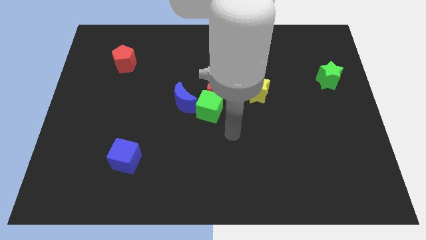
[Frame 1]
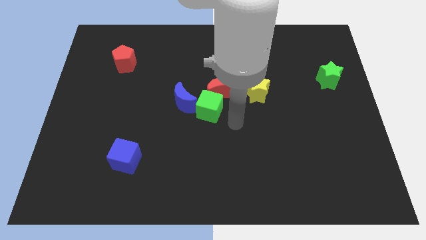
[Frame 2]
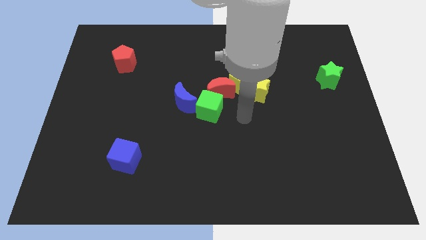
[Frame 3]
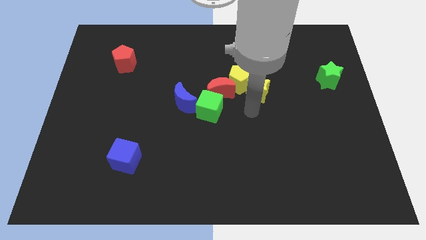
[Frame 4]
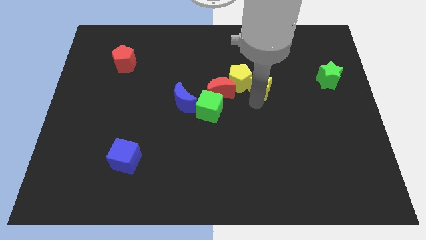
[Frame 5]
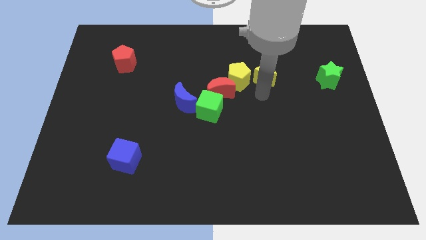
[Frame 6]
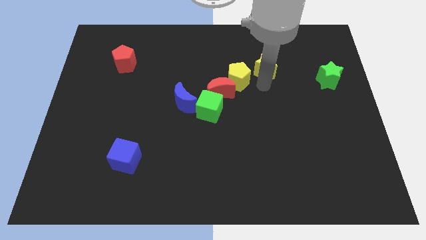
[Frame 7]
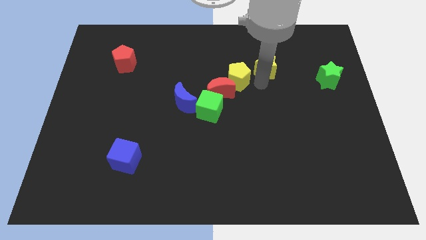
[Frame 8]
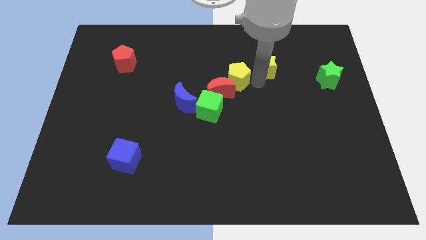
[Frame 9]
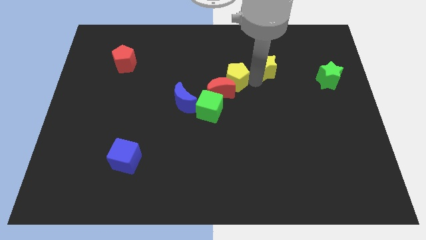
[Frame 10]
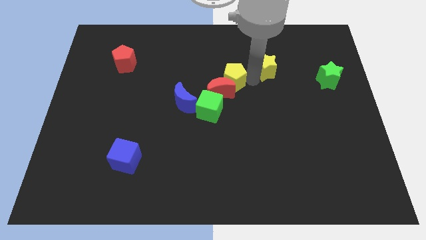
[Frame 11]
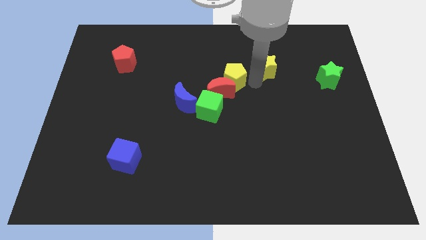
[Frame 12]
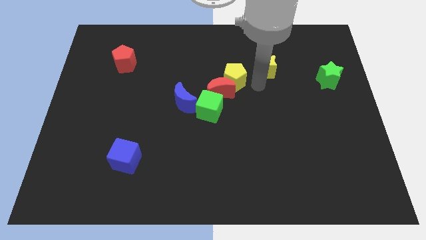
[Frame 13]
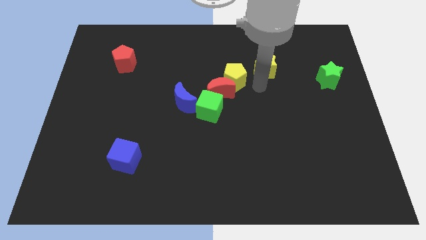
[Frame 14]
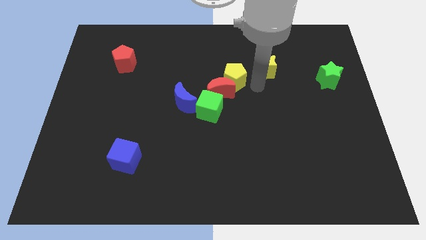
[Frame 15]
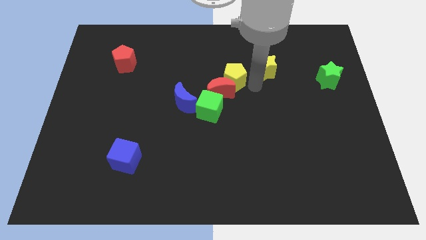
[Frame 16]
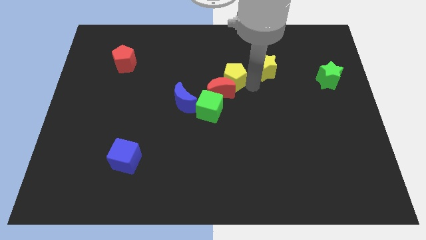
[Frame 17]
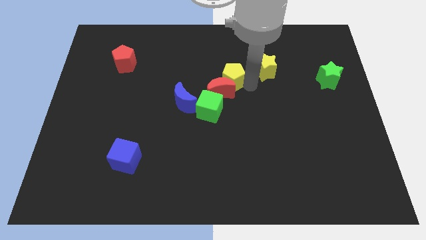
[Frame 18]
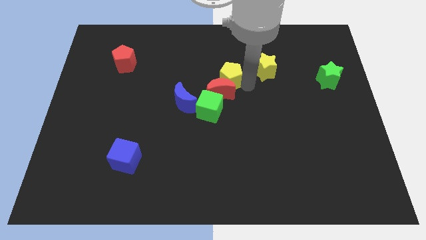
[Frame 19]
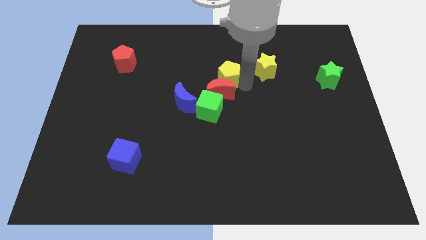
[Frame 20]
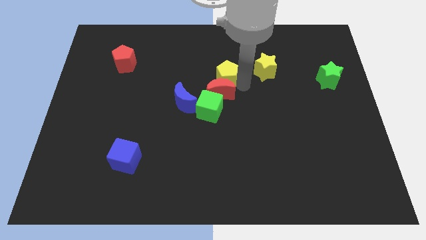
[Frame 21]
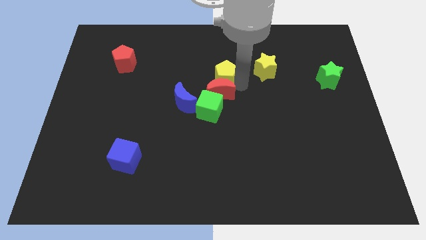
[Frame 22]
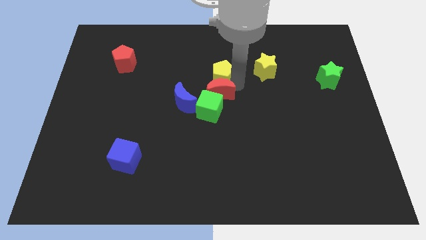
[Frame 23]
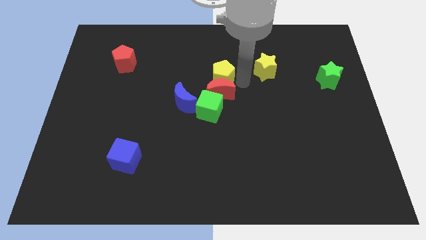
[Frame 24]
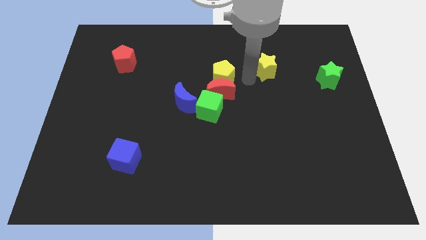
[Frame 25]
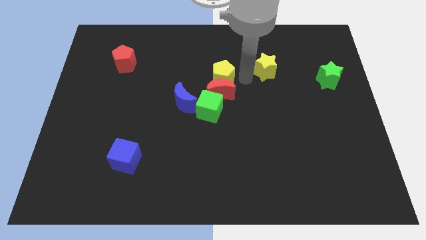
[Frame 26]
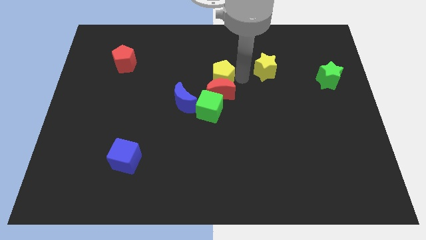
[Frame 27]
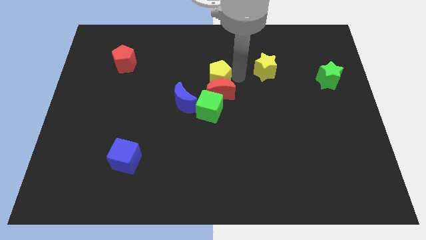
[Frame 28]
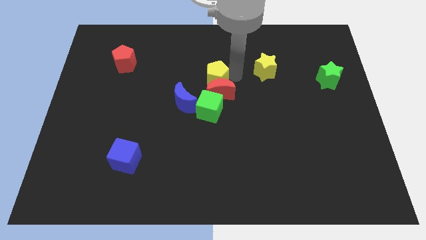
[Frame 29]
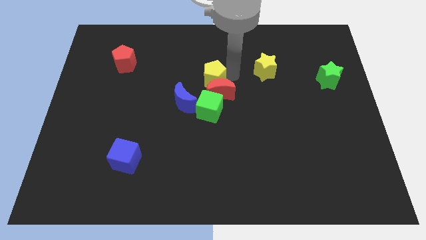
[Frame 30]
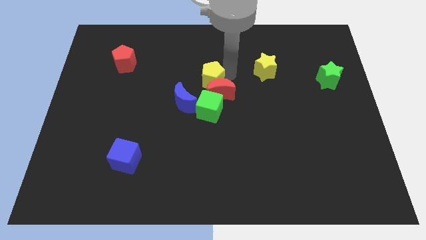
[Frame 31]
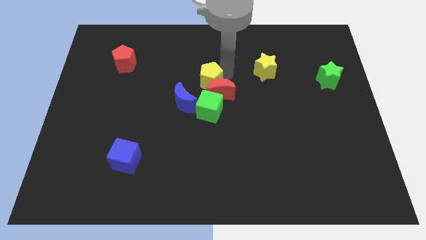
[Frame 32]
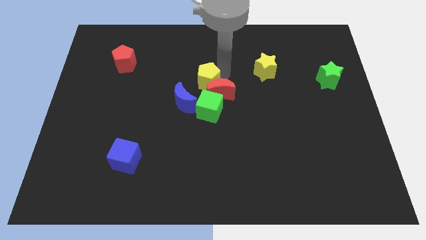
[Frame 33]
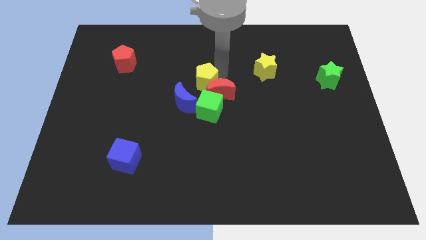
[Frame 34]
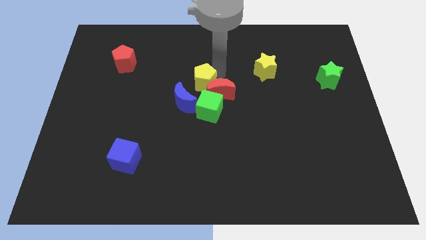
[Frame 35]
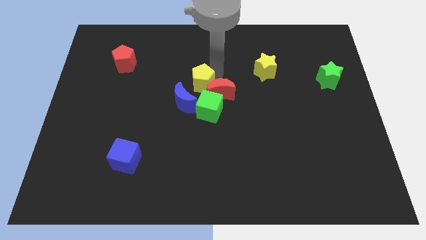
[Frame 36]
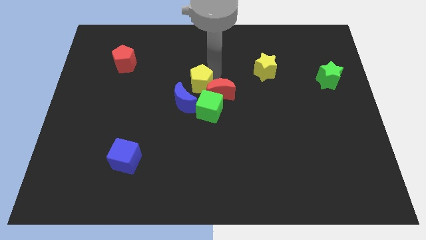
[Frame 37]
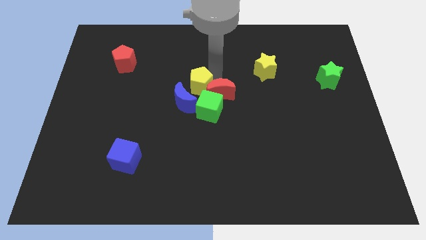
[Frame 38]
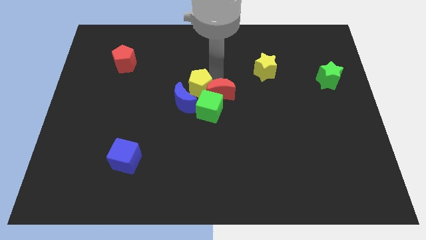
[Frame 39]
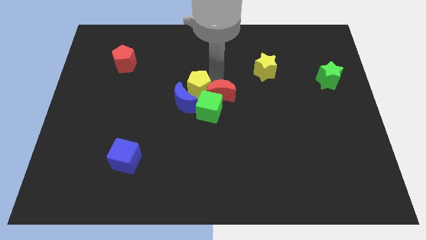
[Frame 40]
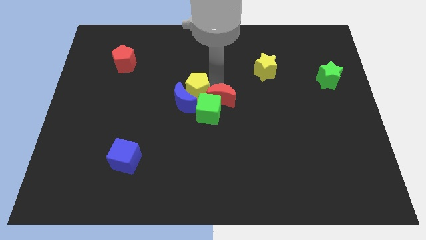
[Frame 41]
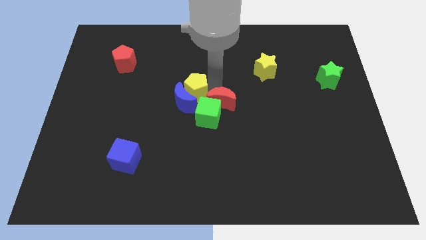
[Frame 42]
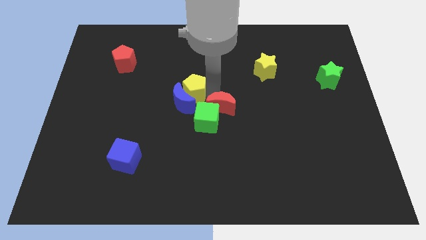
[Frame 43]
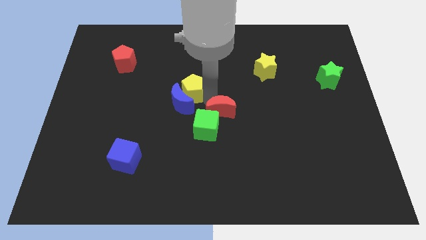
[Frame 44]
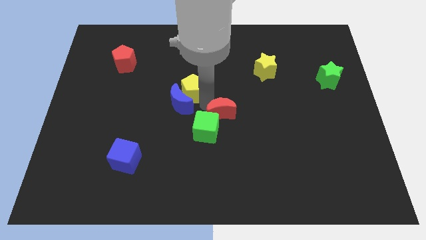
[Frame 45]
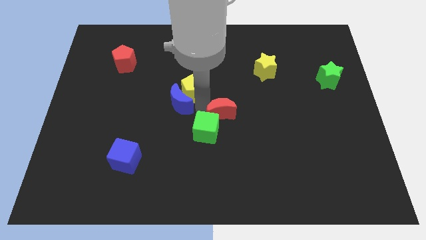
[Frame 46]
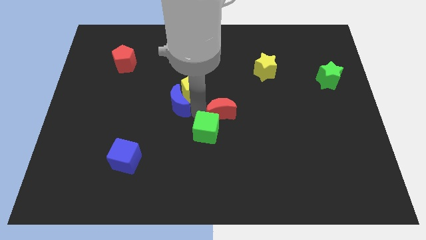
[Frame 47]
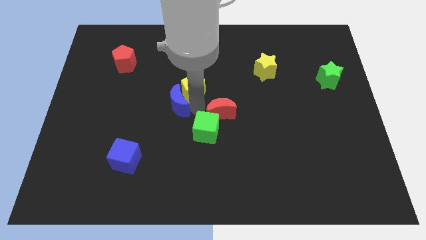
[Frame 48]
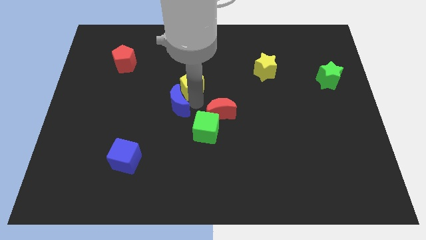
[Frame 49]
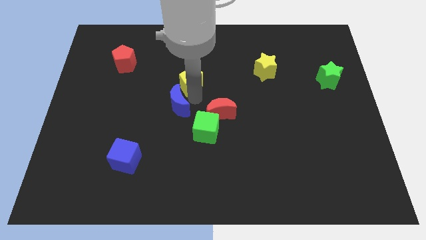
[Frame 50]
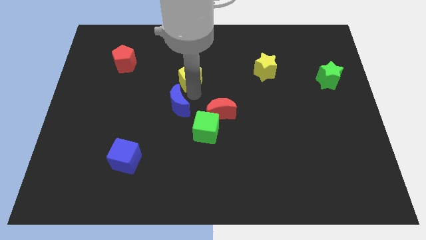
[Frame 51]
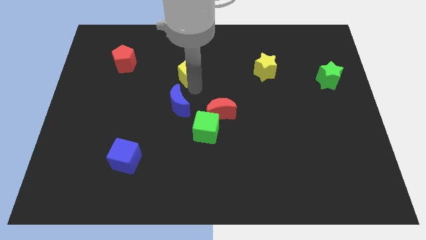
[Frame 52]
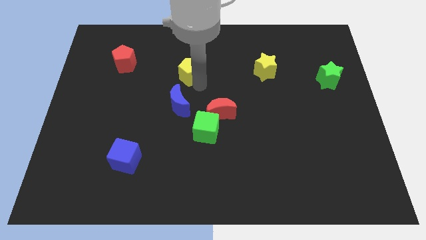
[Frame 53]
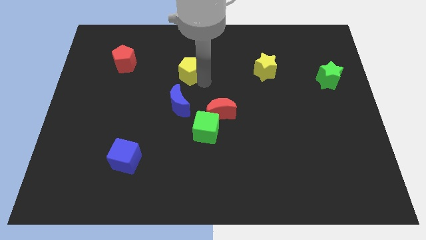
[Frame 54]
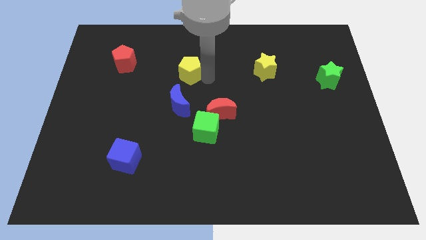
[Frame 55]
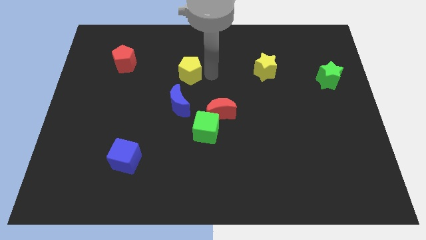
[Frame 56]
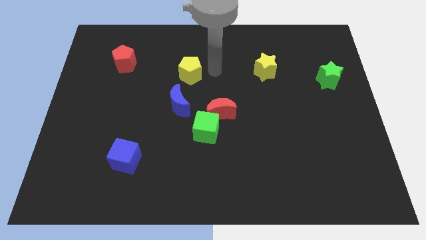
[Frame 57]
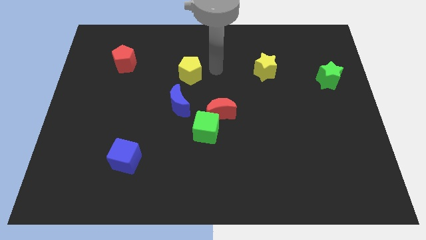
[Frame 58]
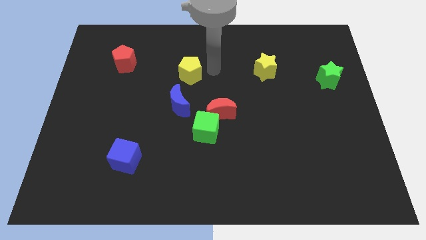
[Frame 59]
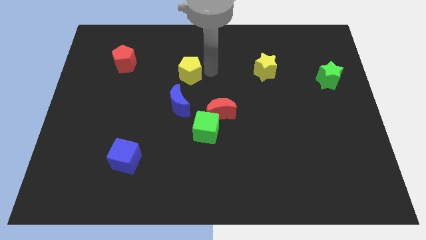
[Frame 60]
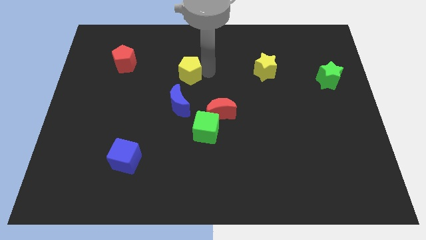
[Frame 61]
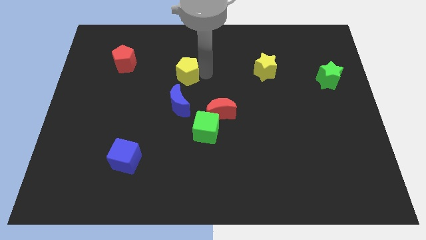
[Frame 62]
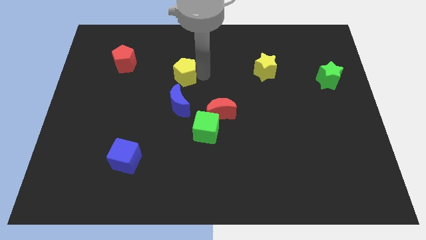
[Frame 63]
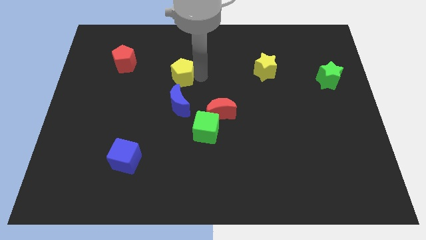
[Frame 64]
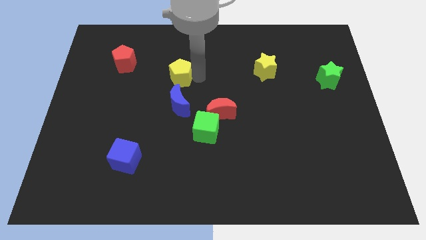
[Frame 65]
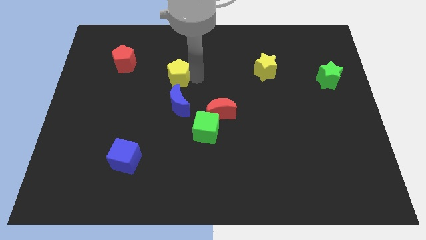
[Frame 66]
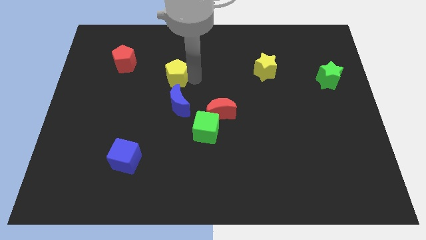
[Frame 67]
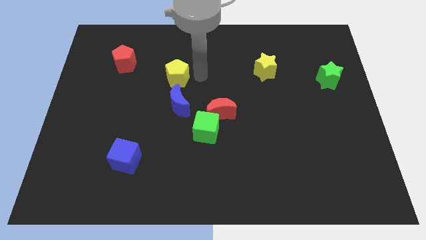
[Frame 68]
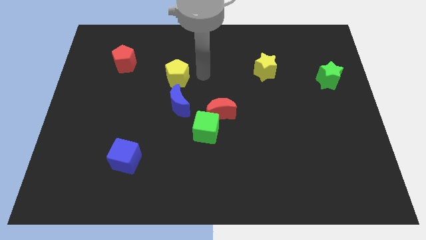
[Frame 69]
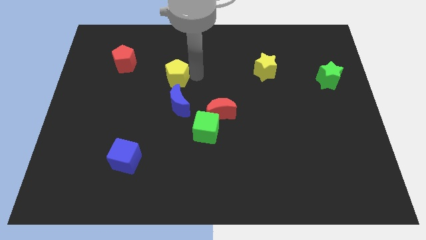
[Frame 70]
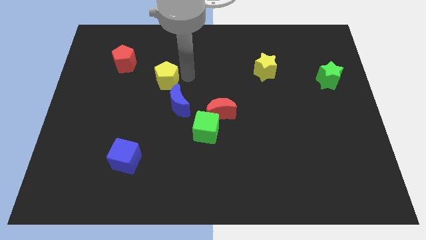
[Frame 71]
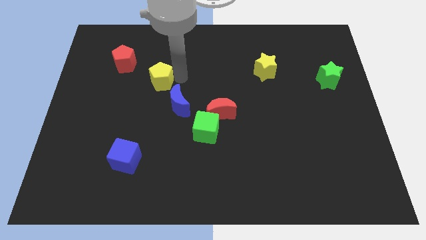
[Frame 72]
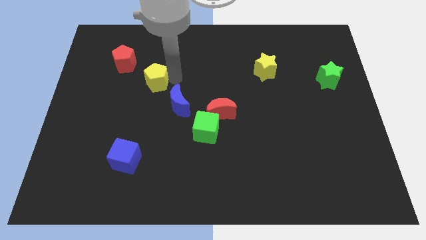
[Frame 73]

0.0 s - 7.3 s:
push the yellow pentagon to the left

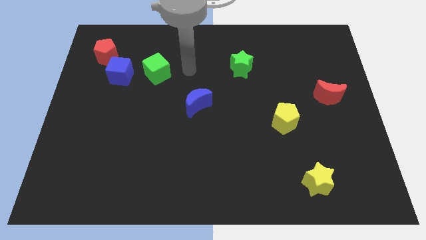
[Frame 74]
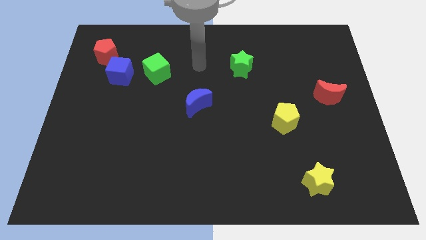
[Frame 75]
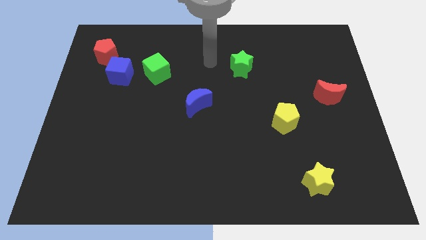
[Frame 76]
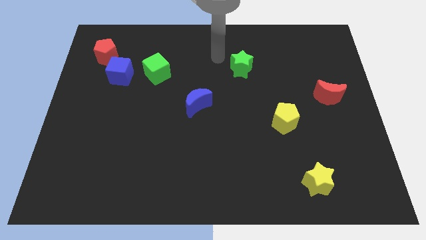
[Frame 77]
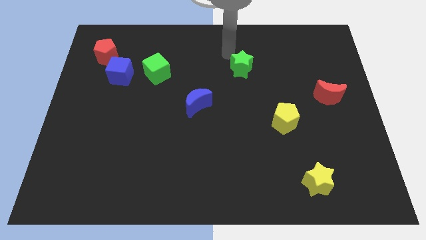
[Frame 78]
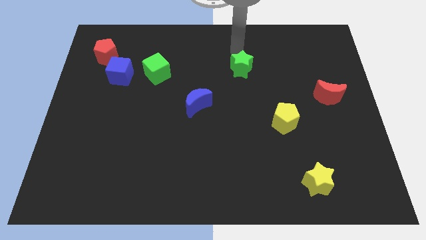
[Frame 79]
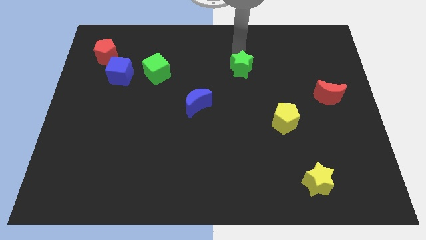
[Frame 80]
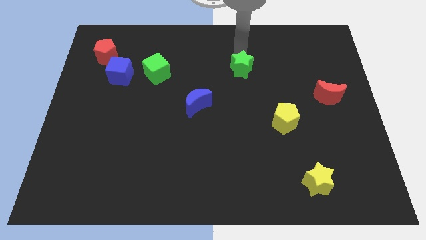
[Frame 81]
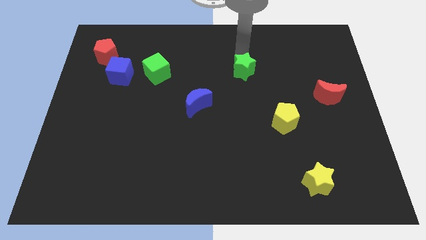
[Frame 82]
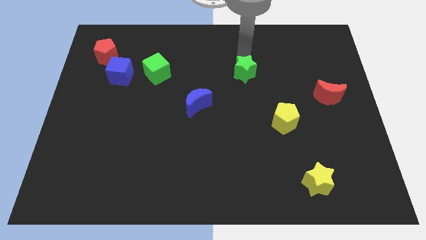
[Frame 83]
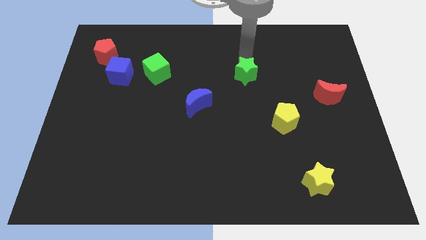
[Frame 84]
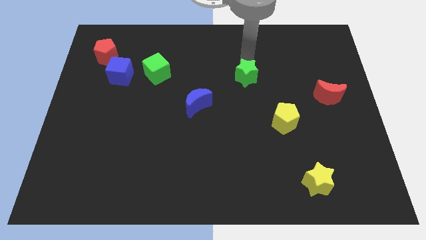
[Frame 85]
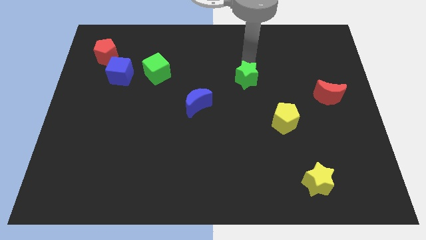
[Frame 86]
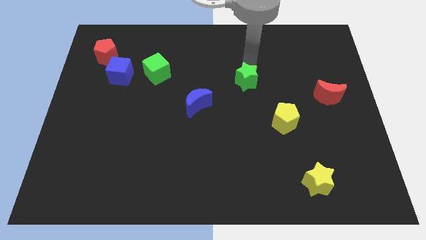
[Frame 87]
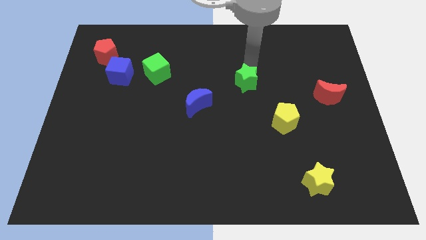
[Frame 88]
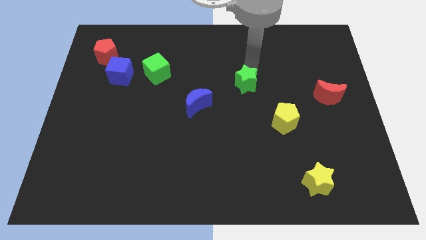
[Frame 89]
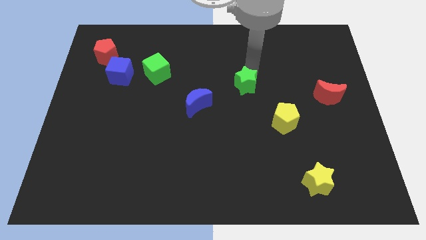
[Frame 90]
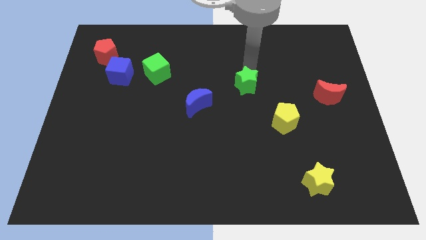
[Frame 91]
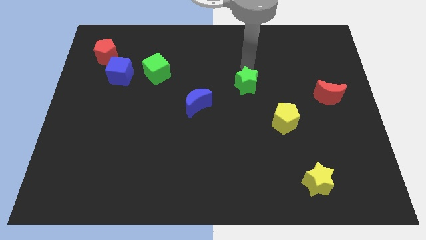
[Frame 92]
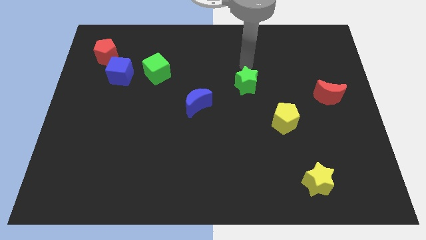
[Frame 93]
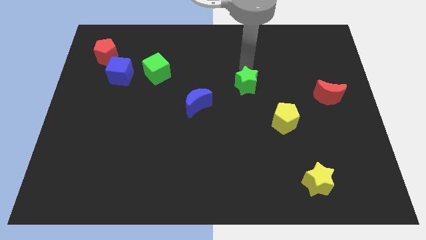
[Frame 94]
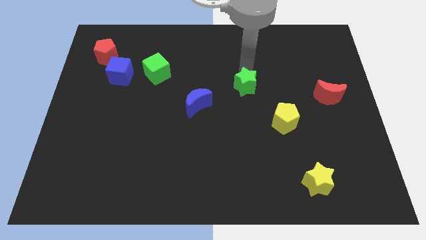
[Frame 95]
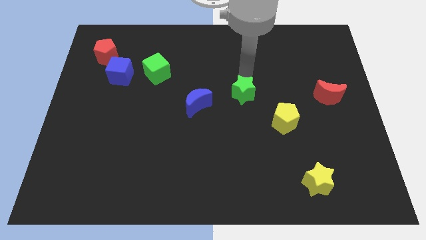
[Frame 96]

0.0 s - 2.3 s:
push the green star somewhat down
